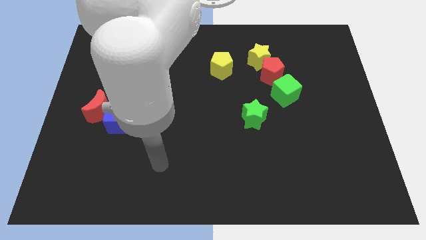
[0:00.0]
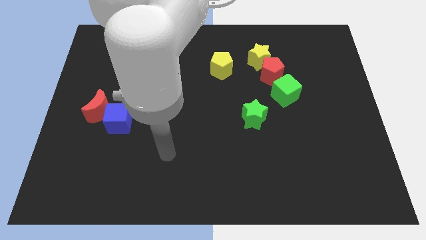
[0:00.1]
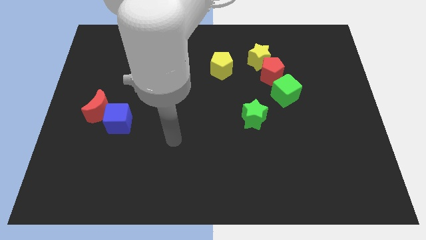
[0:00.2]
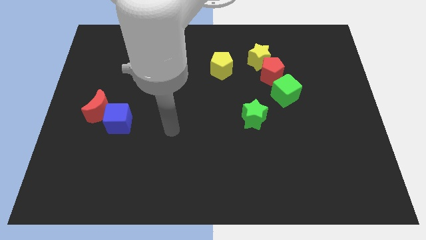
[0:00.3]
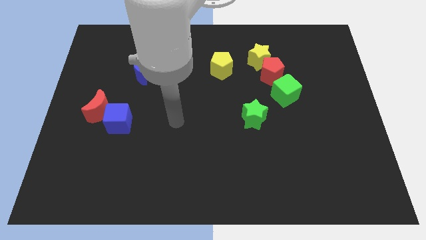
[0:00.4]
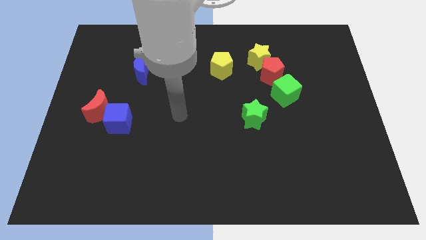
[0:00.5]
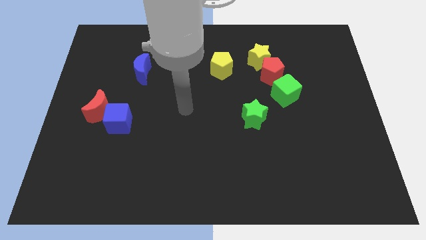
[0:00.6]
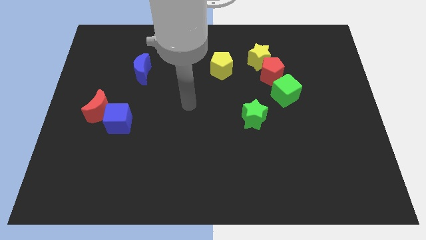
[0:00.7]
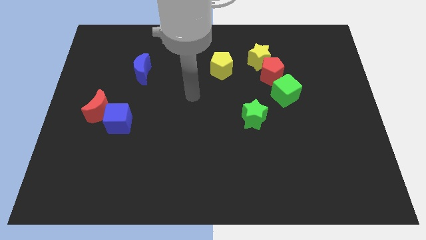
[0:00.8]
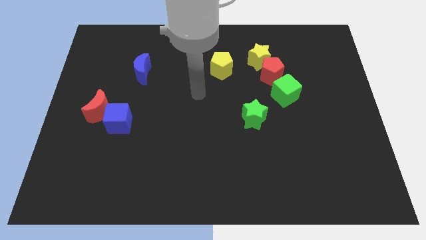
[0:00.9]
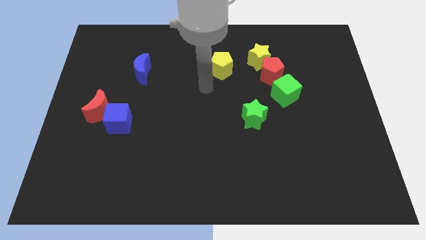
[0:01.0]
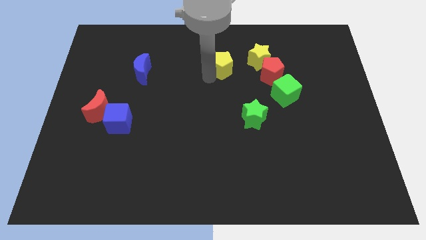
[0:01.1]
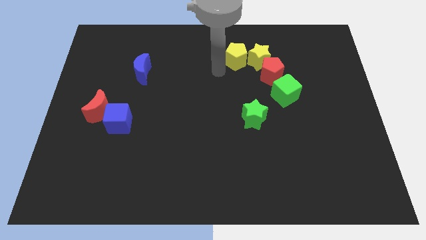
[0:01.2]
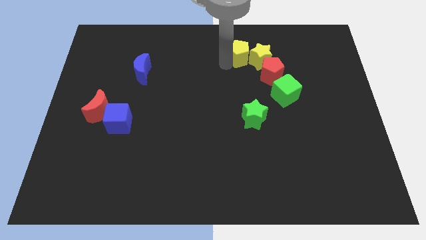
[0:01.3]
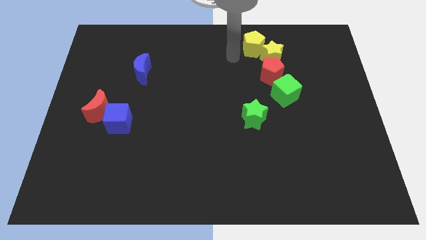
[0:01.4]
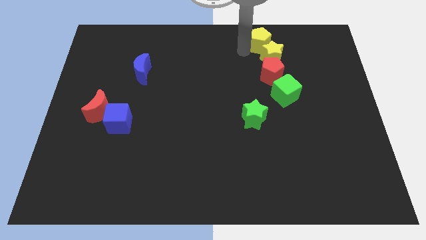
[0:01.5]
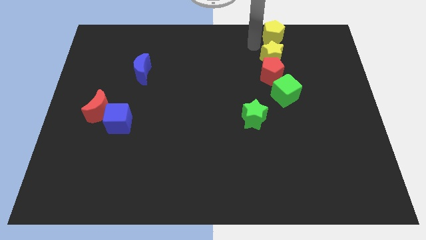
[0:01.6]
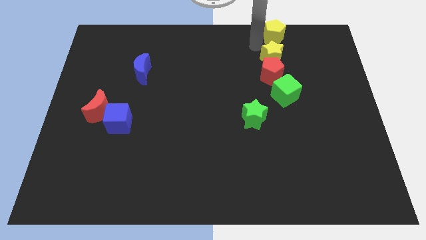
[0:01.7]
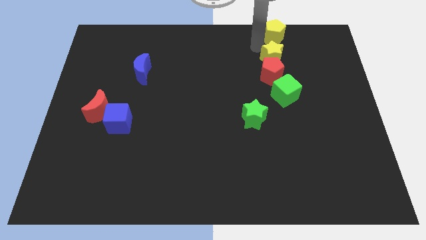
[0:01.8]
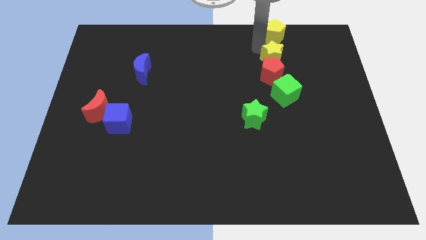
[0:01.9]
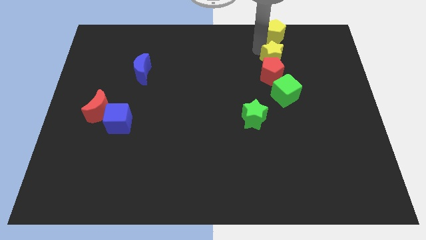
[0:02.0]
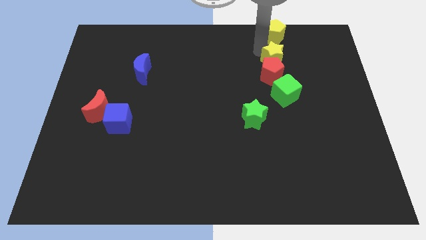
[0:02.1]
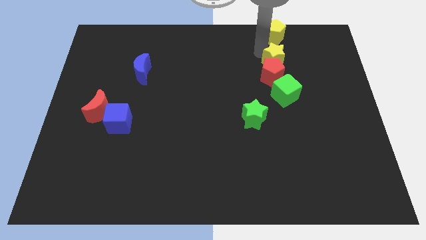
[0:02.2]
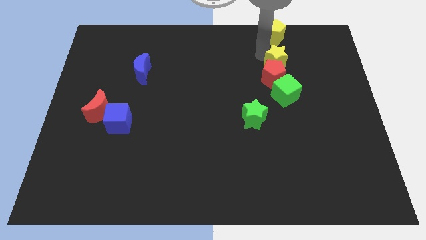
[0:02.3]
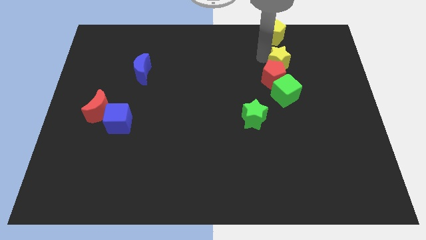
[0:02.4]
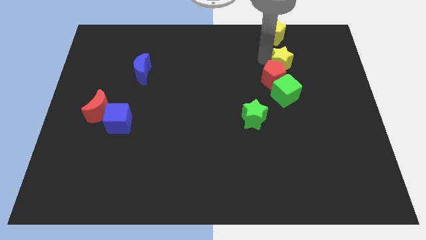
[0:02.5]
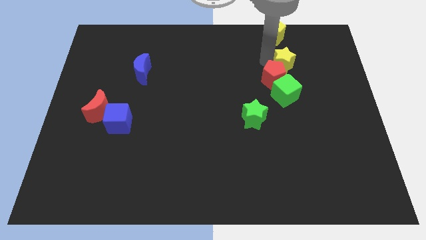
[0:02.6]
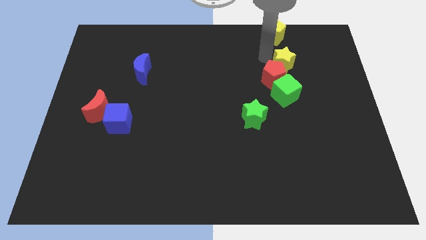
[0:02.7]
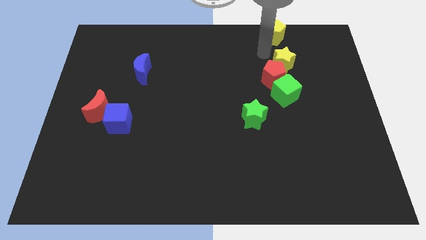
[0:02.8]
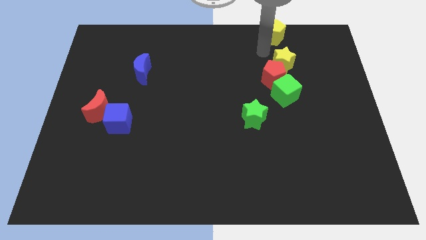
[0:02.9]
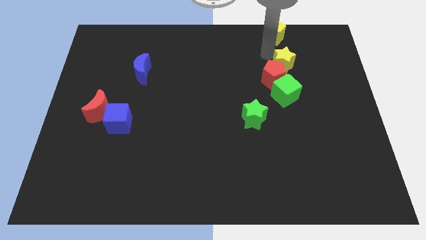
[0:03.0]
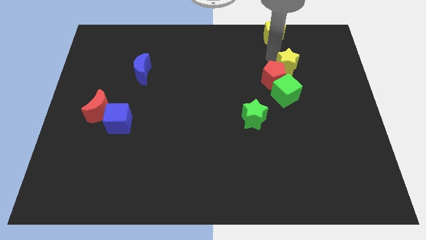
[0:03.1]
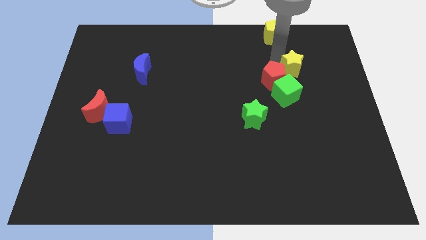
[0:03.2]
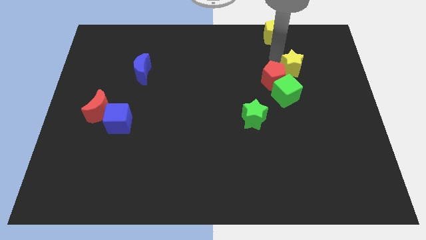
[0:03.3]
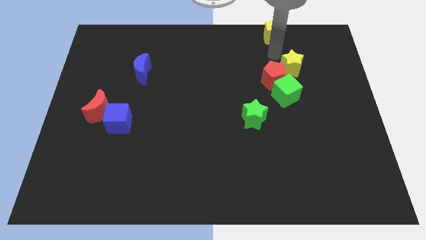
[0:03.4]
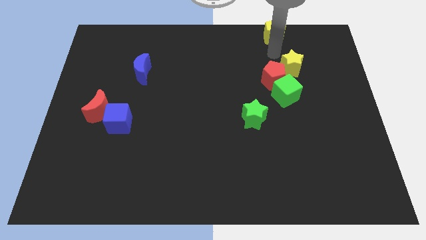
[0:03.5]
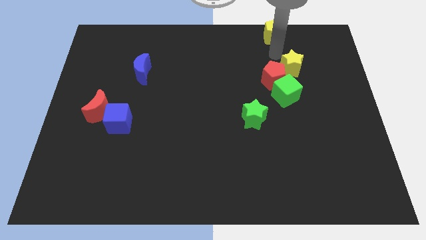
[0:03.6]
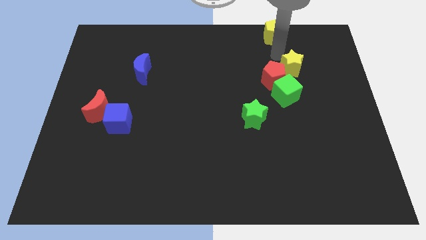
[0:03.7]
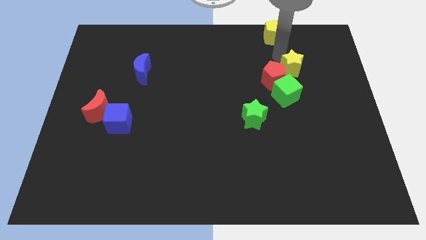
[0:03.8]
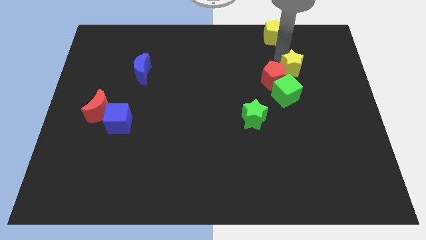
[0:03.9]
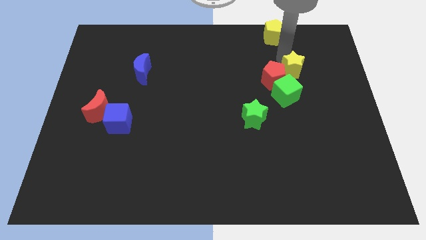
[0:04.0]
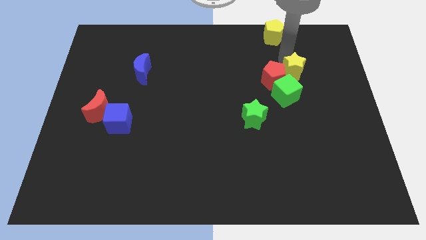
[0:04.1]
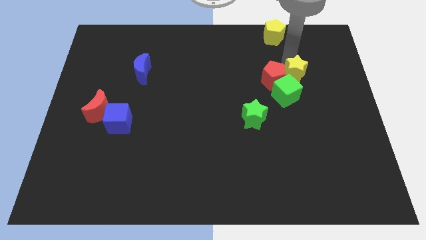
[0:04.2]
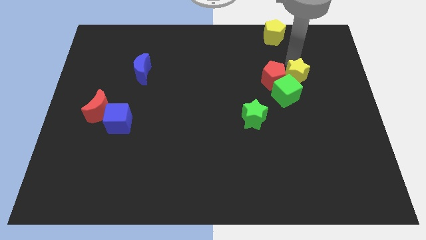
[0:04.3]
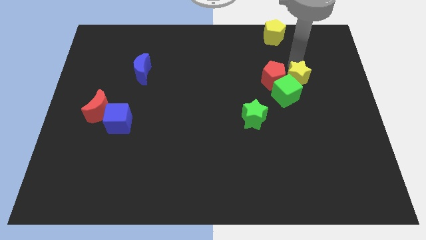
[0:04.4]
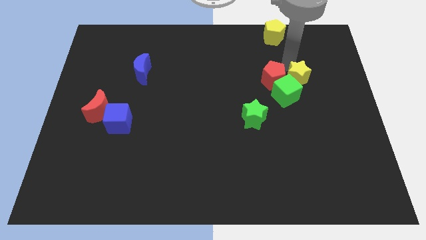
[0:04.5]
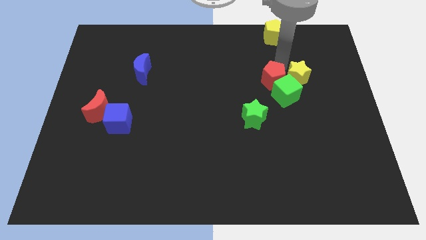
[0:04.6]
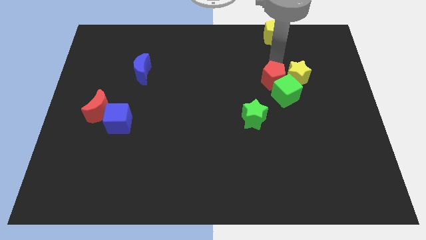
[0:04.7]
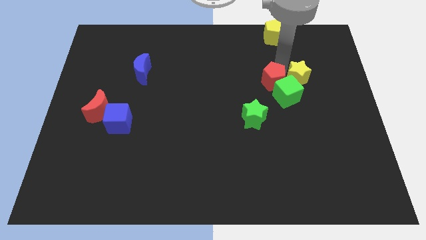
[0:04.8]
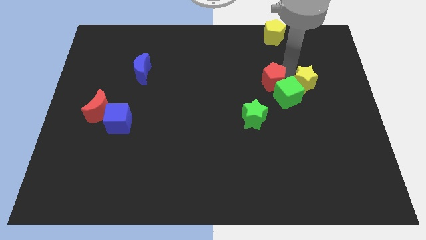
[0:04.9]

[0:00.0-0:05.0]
move the yellow star to the right of the green cube

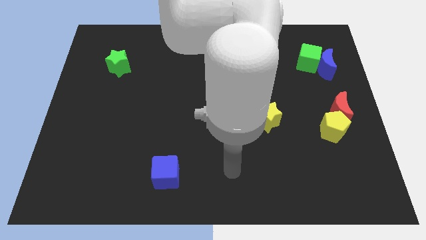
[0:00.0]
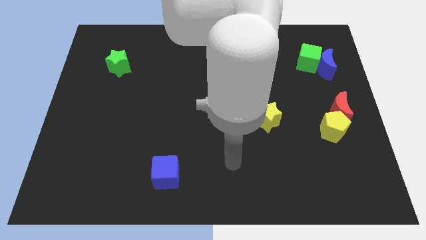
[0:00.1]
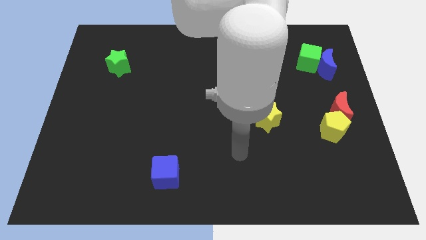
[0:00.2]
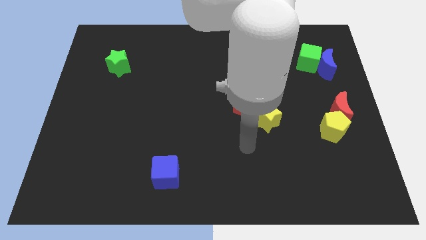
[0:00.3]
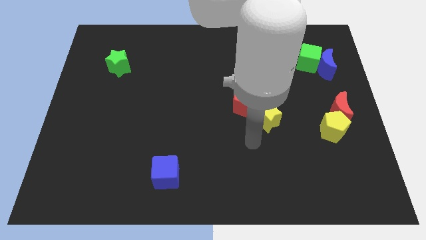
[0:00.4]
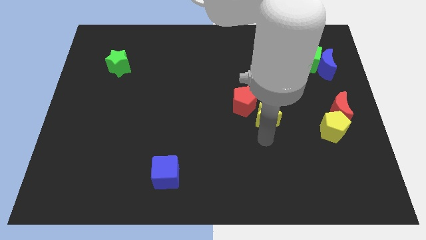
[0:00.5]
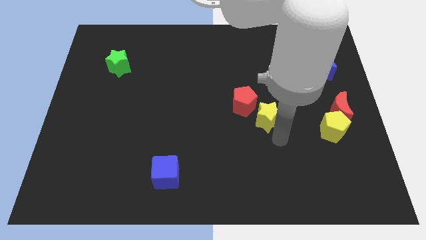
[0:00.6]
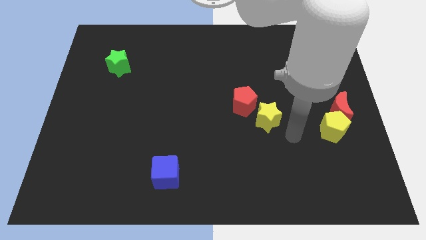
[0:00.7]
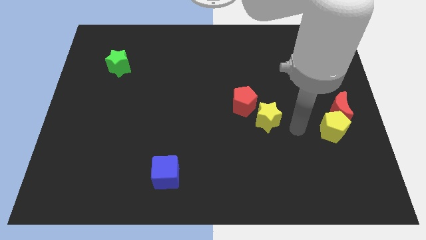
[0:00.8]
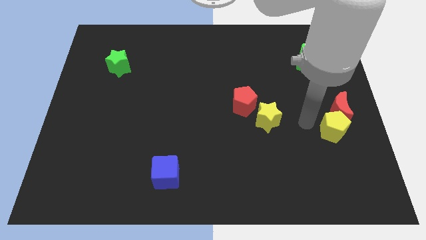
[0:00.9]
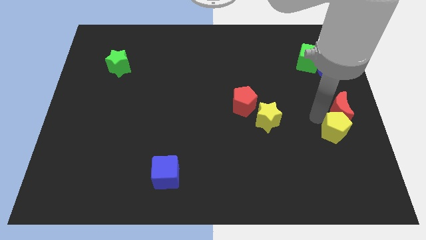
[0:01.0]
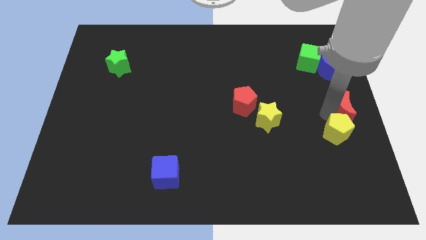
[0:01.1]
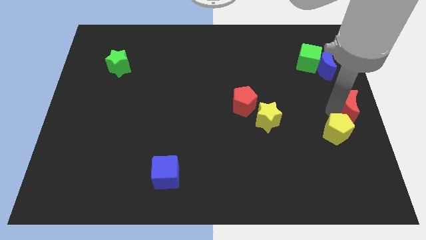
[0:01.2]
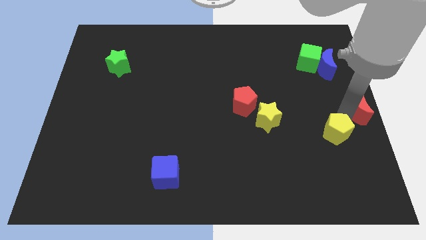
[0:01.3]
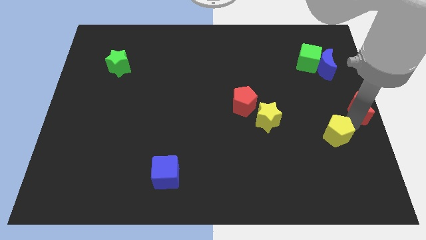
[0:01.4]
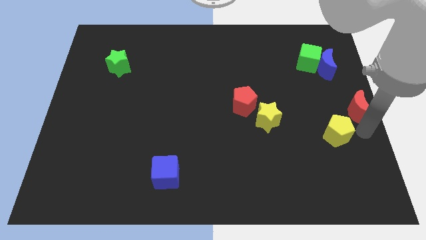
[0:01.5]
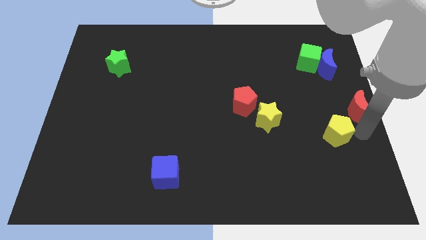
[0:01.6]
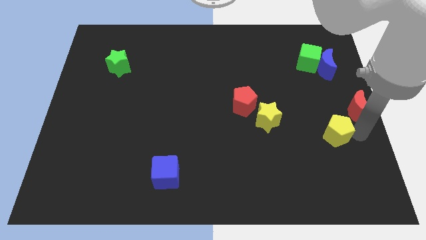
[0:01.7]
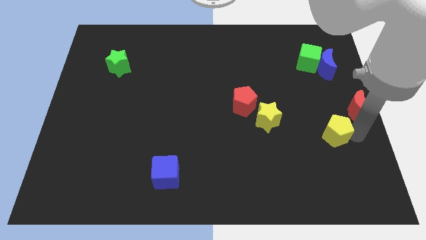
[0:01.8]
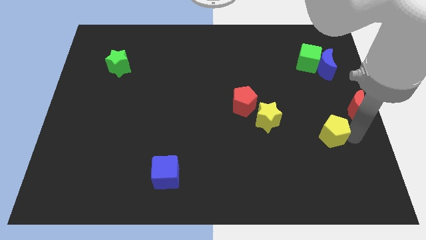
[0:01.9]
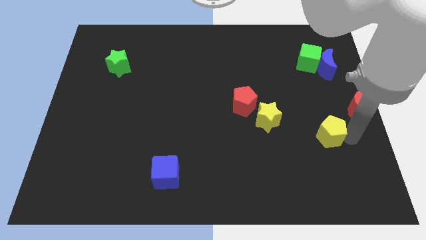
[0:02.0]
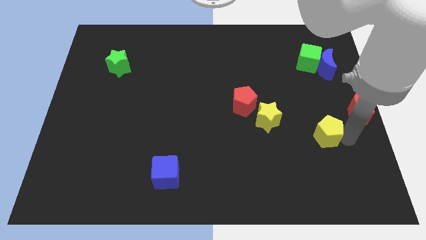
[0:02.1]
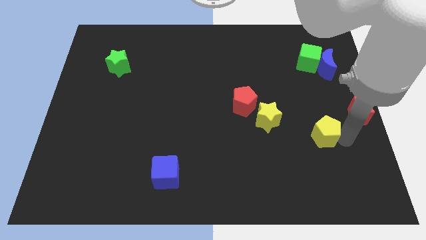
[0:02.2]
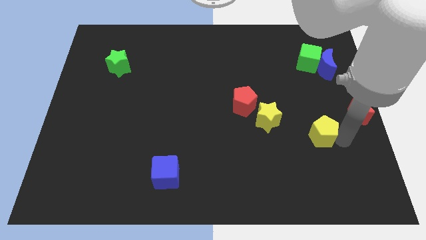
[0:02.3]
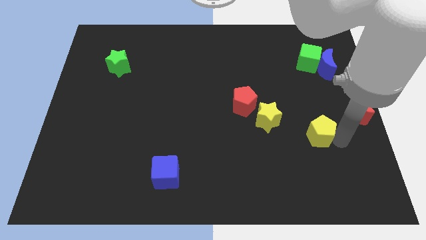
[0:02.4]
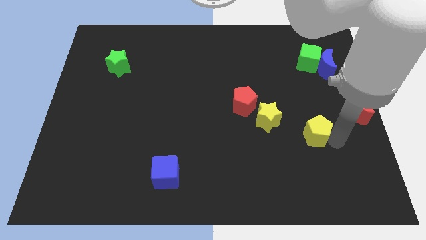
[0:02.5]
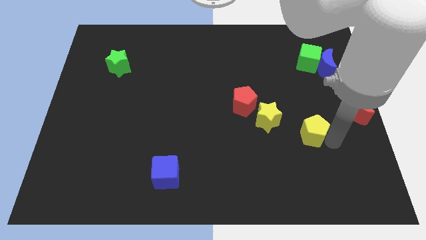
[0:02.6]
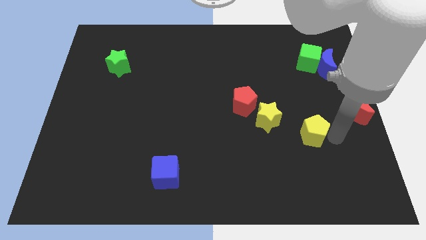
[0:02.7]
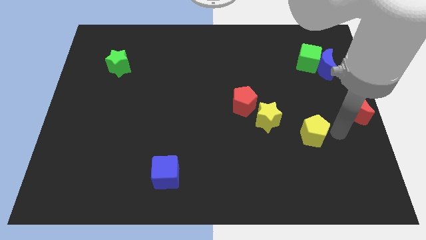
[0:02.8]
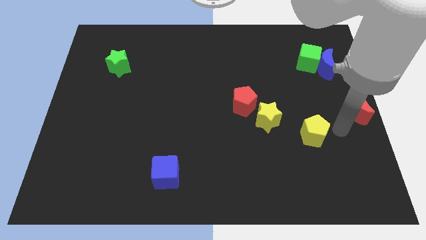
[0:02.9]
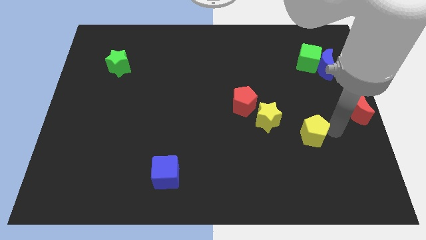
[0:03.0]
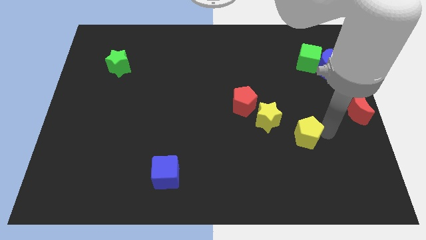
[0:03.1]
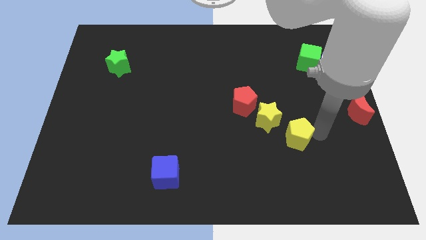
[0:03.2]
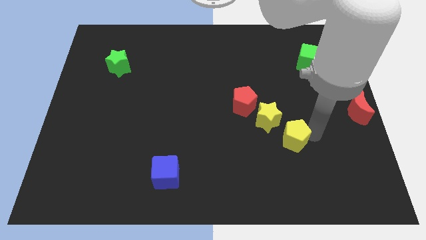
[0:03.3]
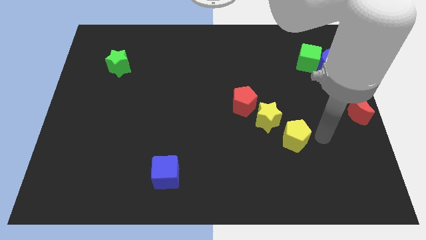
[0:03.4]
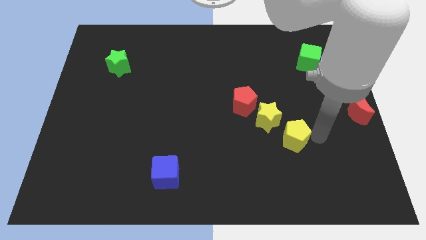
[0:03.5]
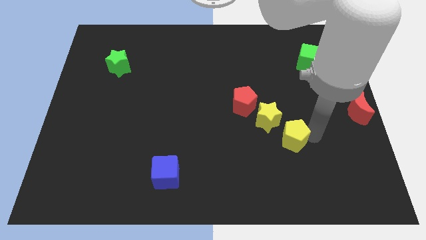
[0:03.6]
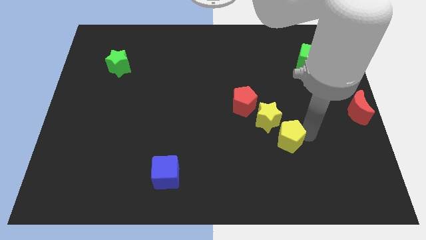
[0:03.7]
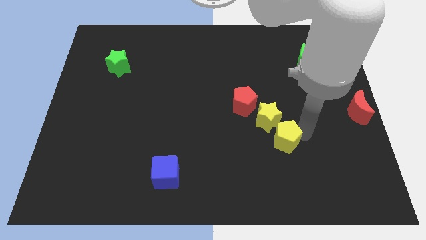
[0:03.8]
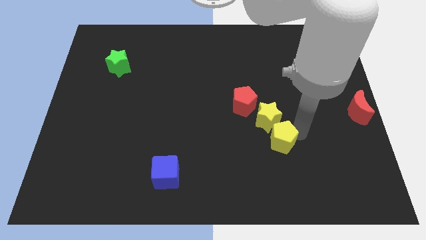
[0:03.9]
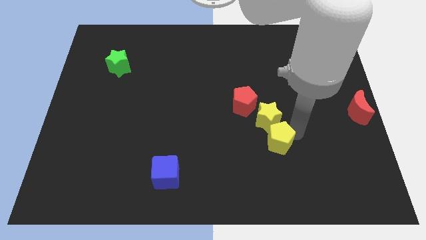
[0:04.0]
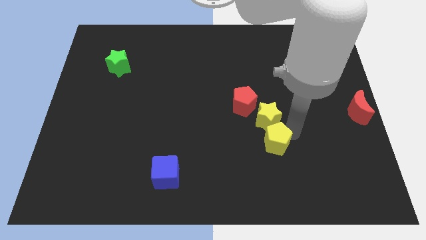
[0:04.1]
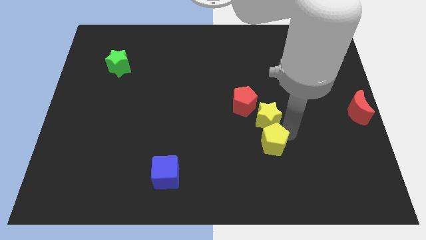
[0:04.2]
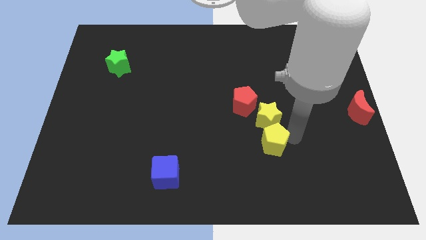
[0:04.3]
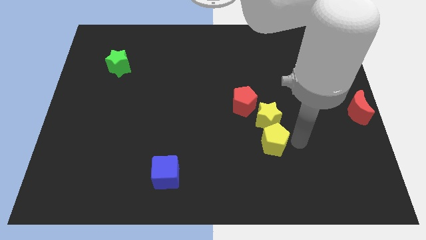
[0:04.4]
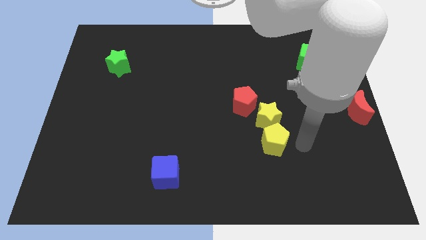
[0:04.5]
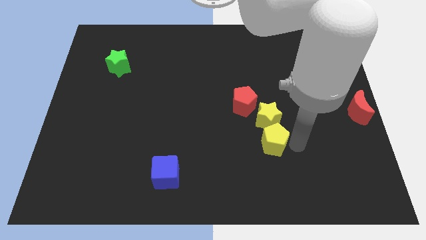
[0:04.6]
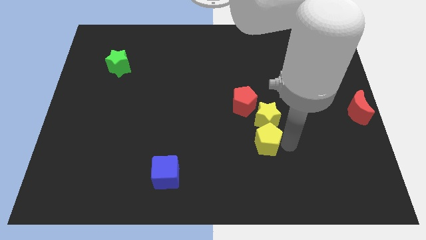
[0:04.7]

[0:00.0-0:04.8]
move the yellow pentagon to the bottom of the red pentagon
